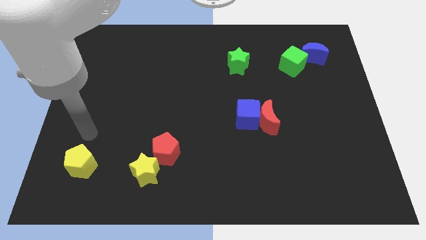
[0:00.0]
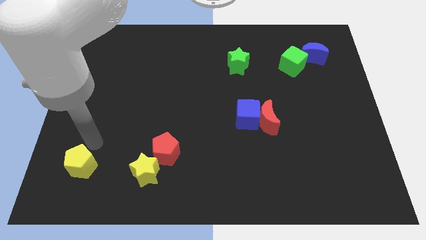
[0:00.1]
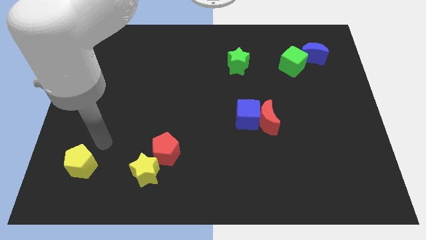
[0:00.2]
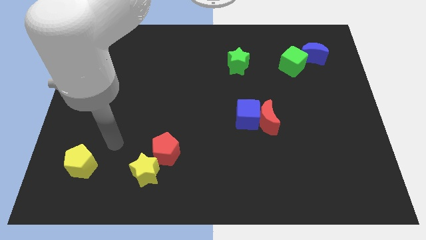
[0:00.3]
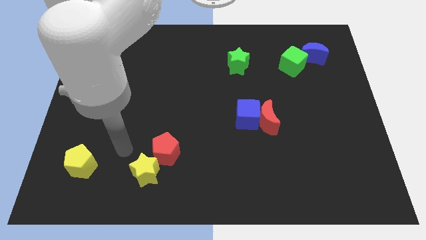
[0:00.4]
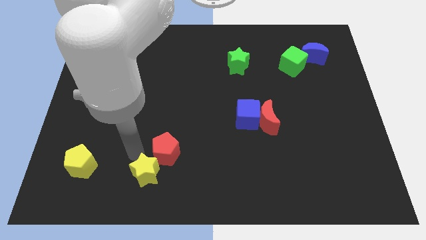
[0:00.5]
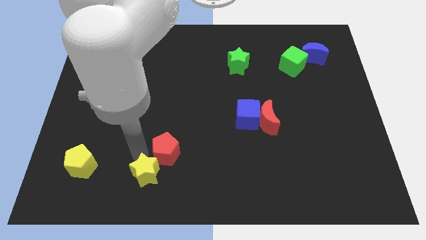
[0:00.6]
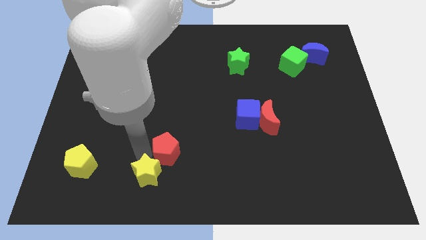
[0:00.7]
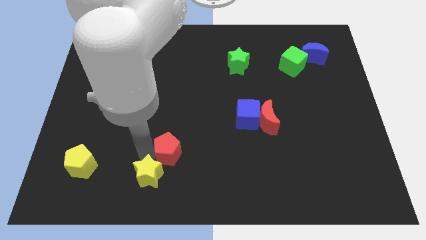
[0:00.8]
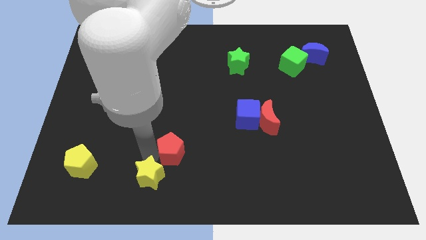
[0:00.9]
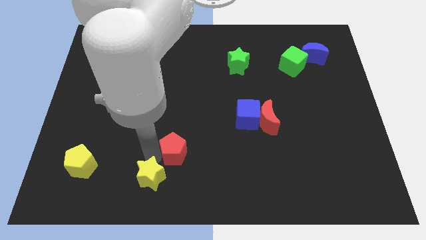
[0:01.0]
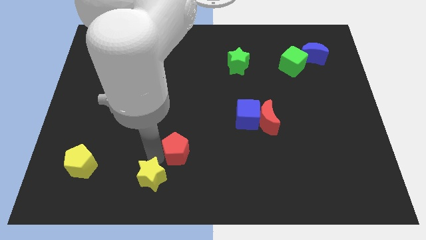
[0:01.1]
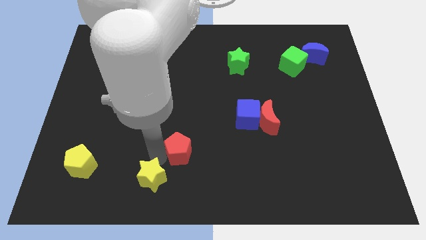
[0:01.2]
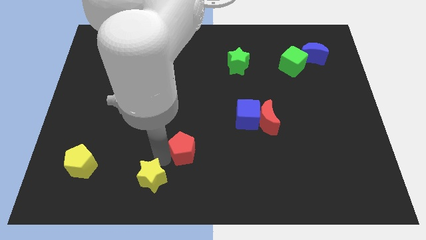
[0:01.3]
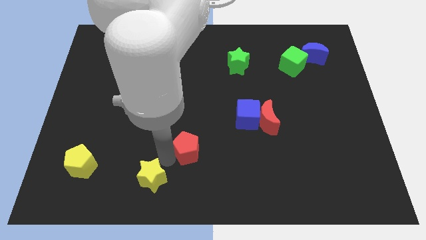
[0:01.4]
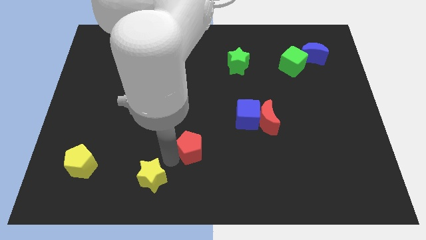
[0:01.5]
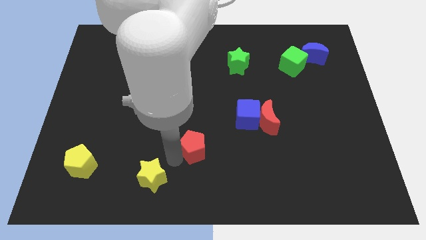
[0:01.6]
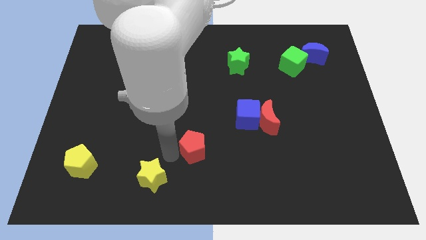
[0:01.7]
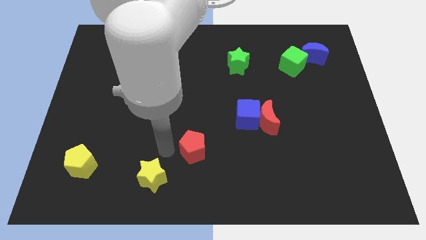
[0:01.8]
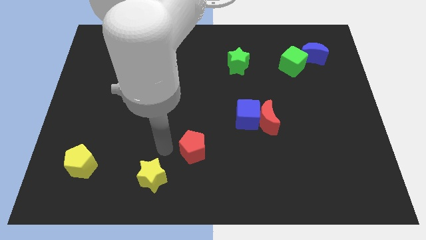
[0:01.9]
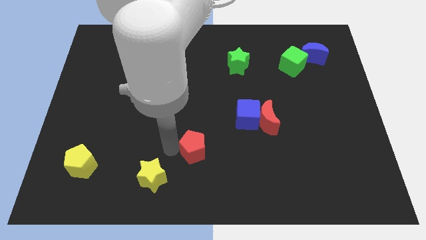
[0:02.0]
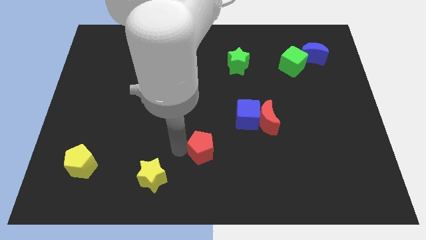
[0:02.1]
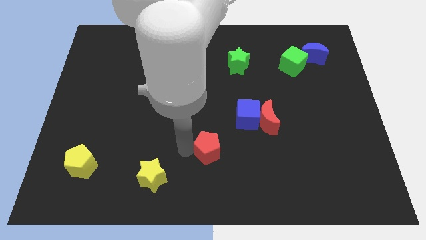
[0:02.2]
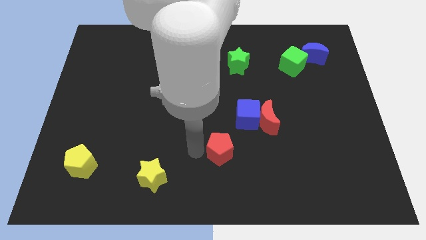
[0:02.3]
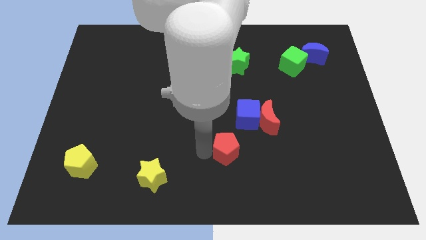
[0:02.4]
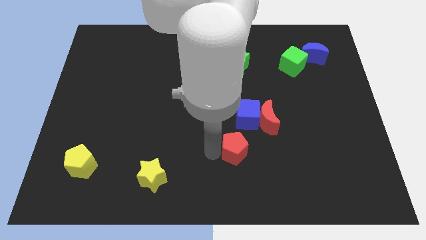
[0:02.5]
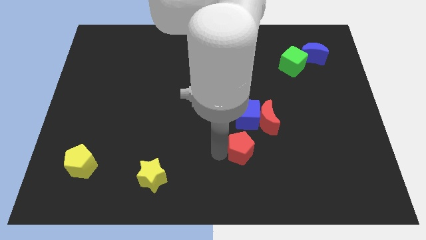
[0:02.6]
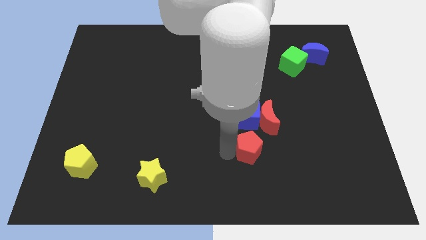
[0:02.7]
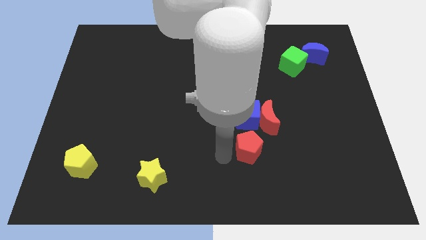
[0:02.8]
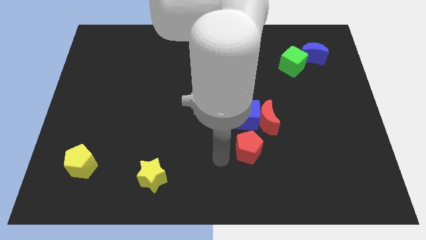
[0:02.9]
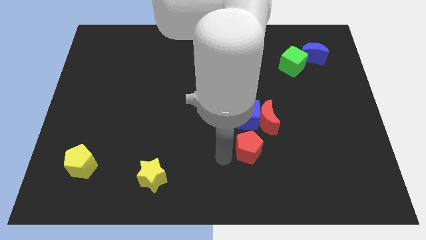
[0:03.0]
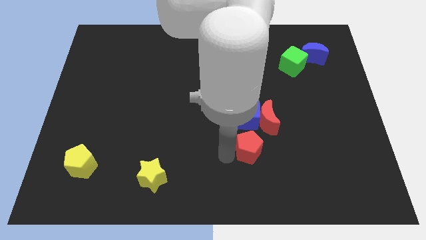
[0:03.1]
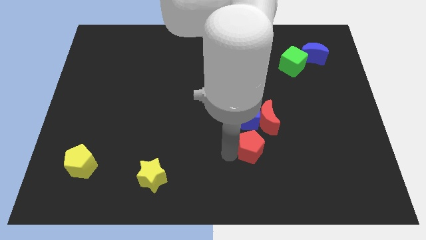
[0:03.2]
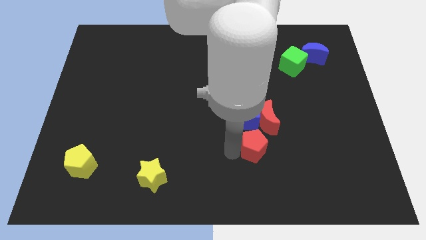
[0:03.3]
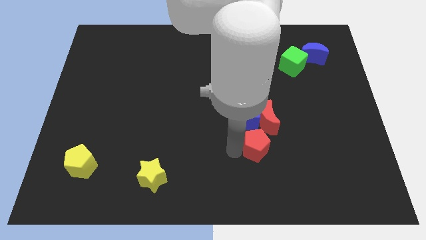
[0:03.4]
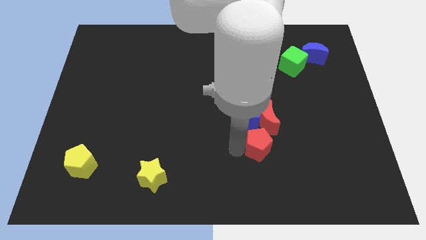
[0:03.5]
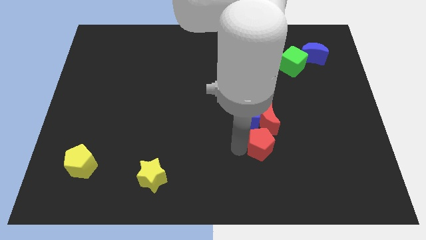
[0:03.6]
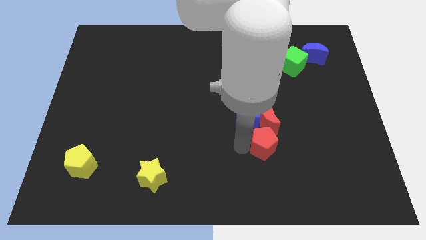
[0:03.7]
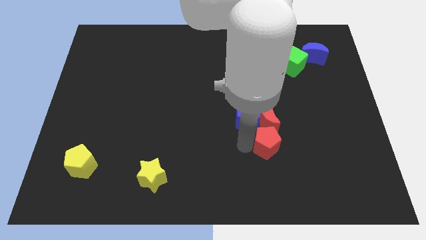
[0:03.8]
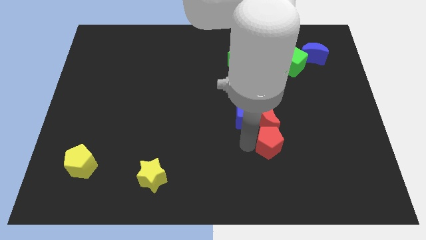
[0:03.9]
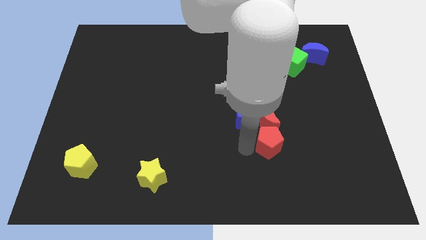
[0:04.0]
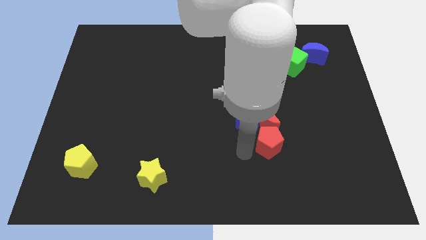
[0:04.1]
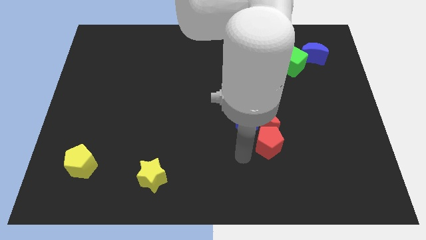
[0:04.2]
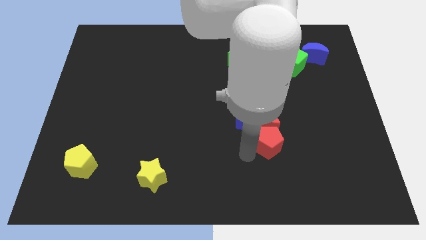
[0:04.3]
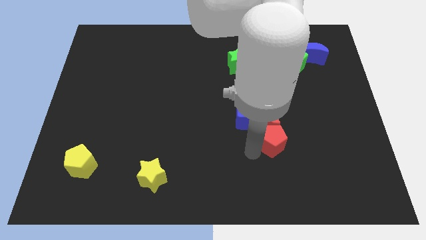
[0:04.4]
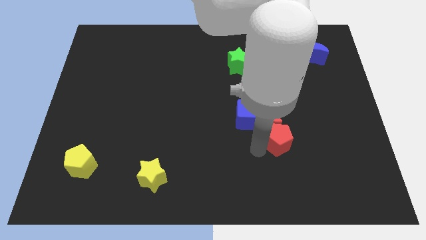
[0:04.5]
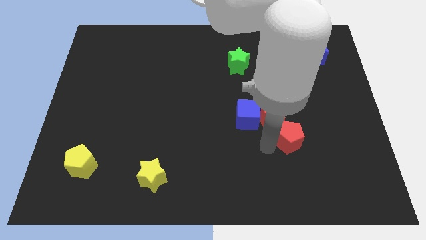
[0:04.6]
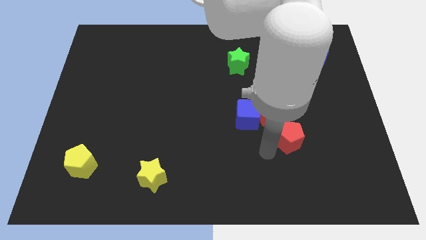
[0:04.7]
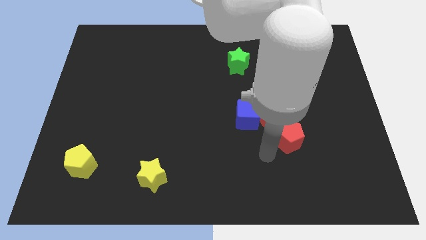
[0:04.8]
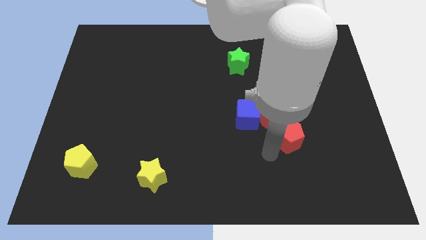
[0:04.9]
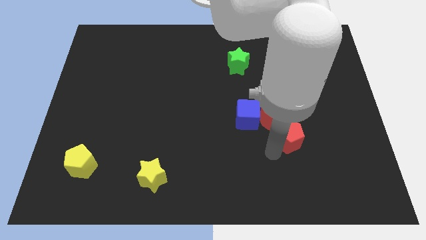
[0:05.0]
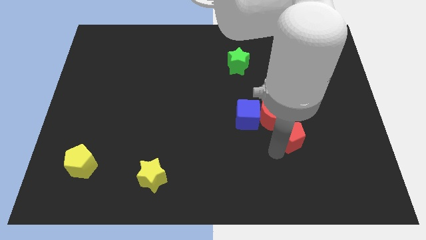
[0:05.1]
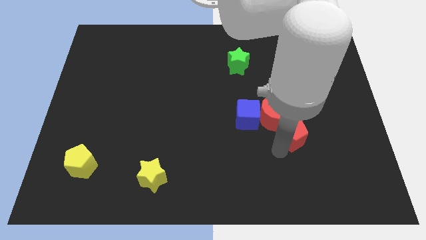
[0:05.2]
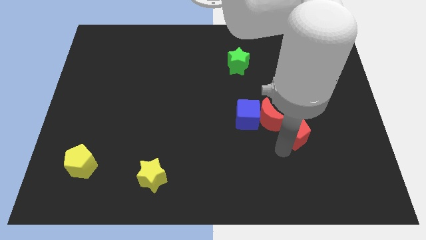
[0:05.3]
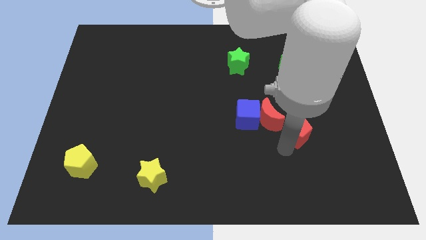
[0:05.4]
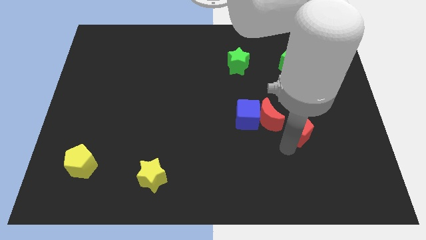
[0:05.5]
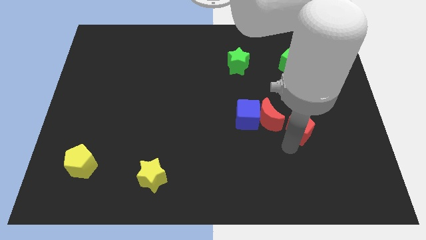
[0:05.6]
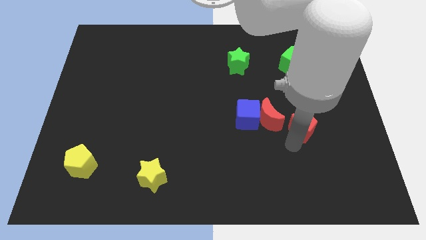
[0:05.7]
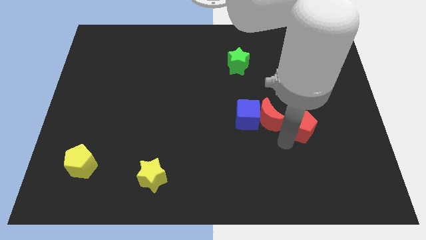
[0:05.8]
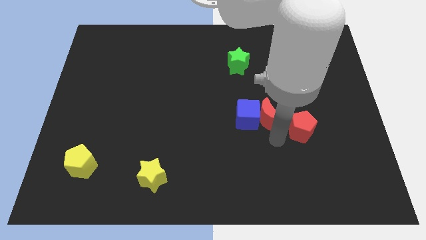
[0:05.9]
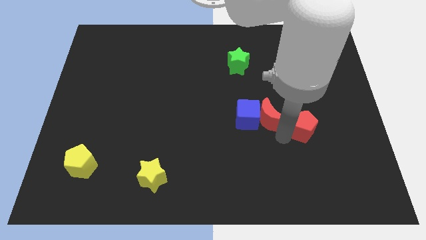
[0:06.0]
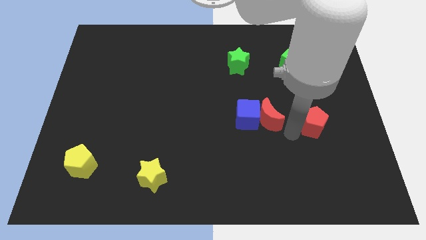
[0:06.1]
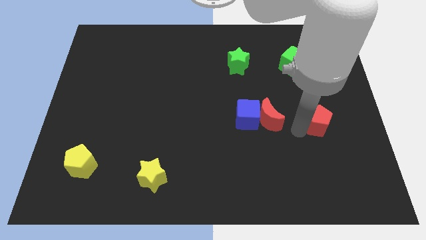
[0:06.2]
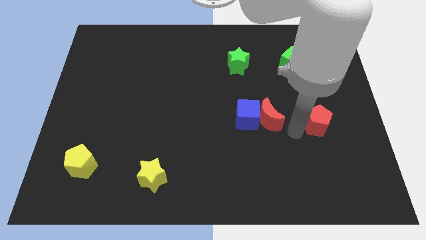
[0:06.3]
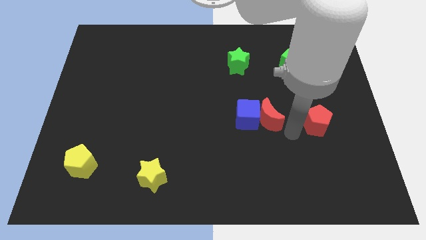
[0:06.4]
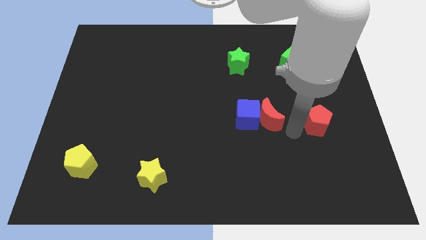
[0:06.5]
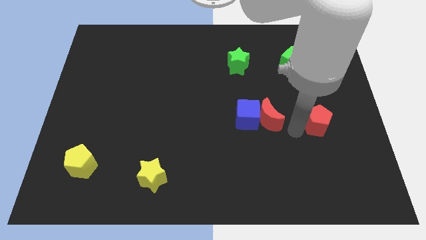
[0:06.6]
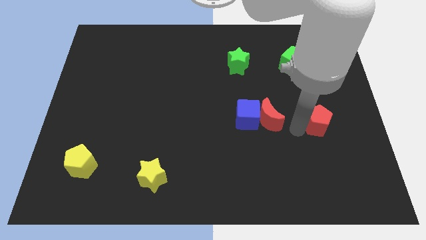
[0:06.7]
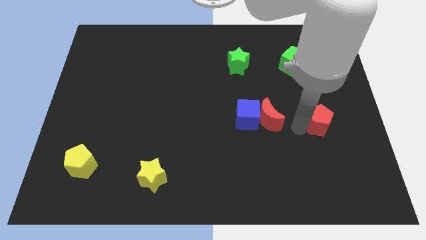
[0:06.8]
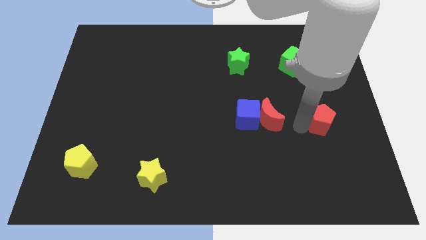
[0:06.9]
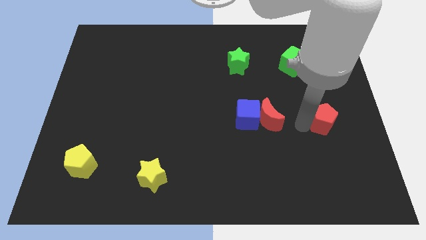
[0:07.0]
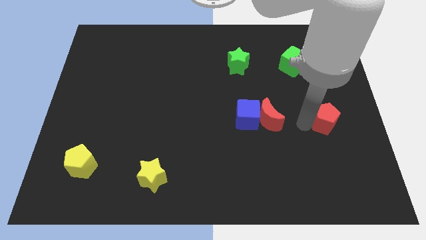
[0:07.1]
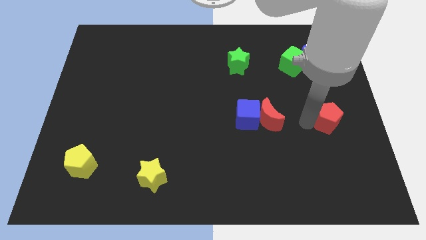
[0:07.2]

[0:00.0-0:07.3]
slide the red pentagon to the right side of the board
